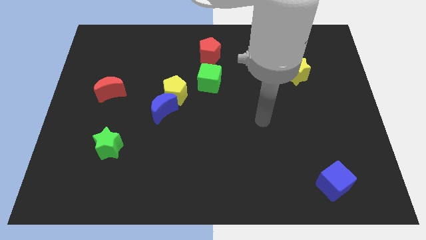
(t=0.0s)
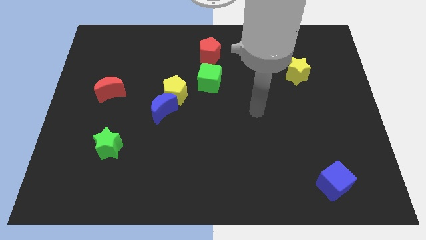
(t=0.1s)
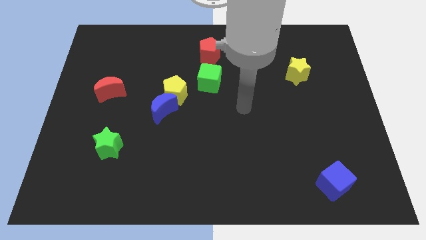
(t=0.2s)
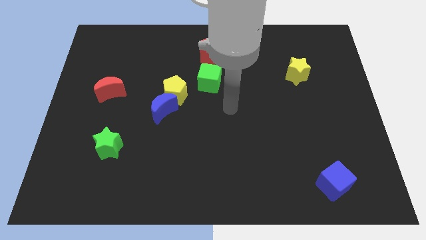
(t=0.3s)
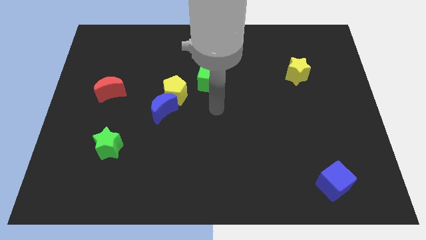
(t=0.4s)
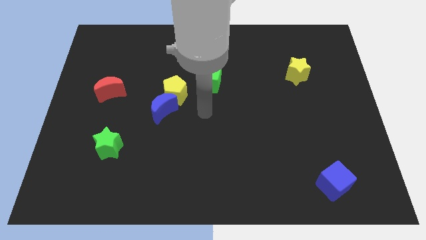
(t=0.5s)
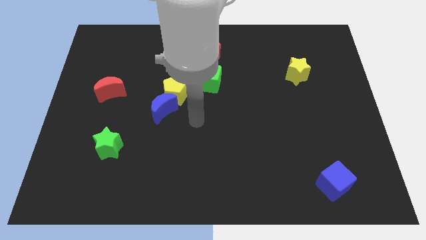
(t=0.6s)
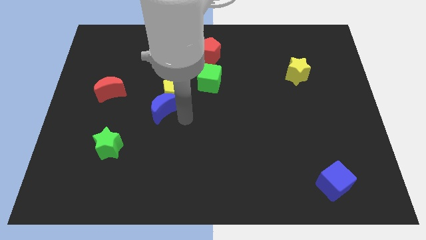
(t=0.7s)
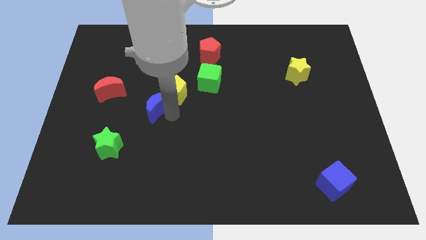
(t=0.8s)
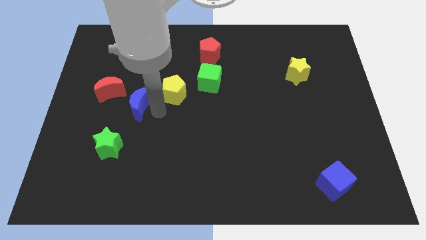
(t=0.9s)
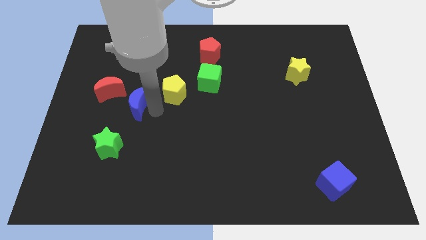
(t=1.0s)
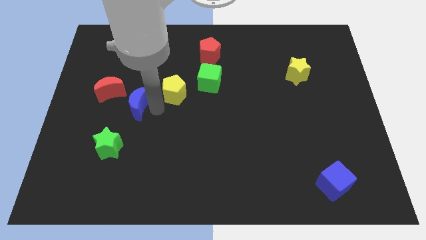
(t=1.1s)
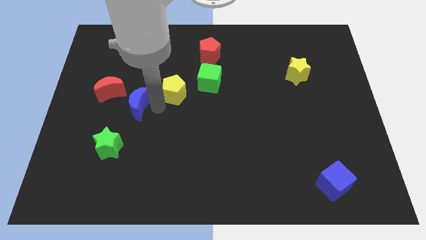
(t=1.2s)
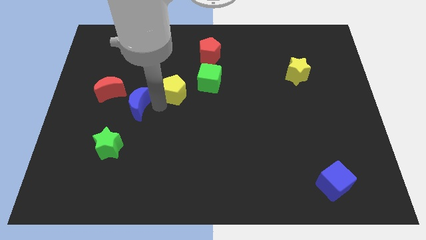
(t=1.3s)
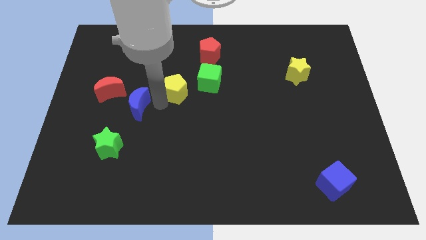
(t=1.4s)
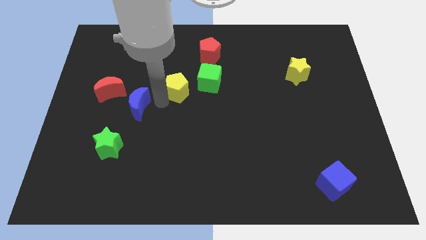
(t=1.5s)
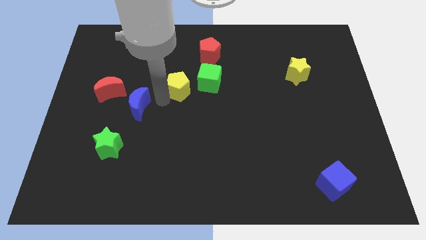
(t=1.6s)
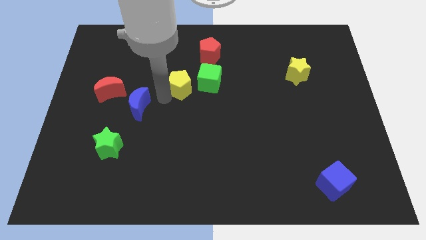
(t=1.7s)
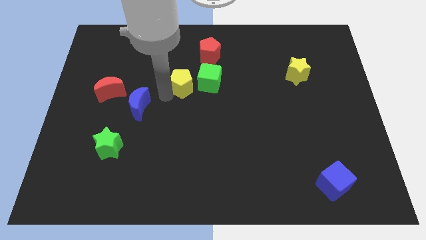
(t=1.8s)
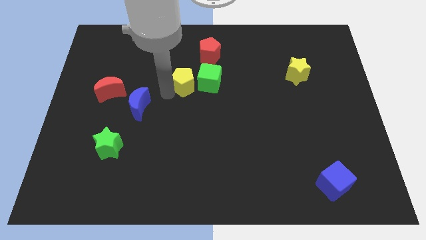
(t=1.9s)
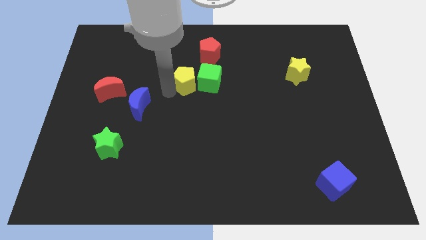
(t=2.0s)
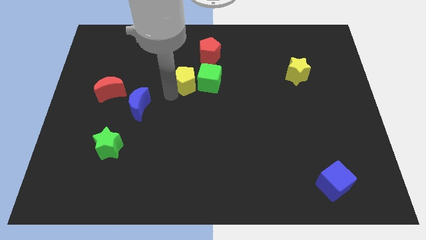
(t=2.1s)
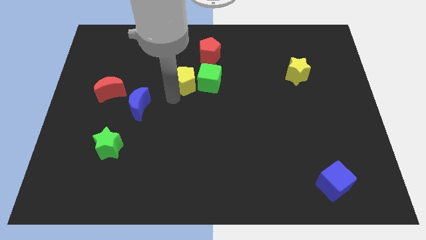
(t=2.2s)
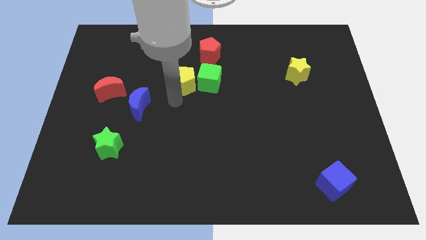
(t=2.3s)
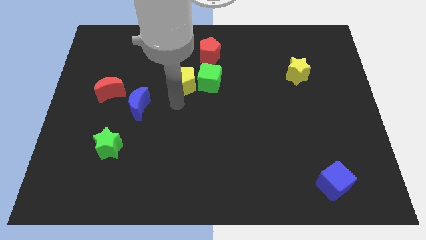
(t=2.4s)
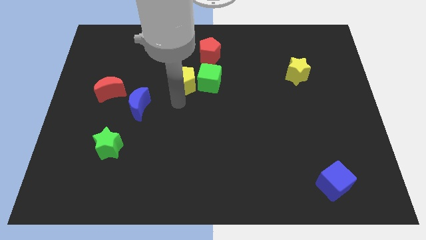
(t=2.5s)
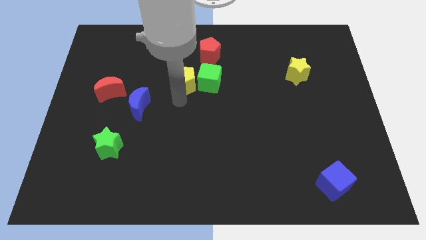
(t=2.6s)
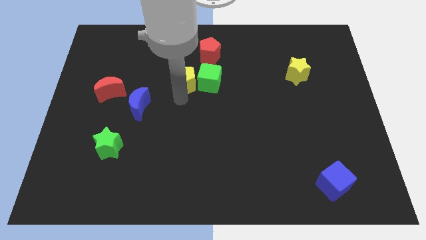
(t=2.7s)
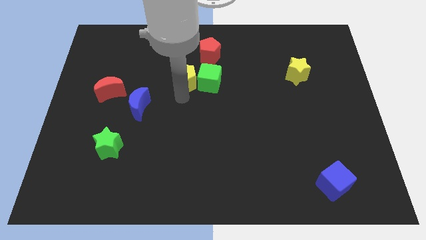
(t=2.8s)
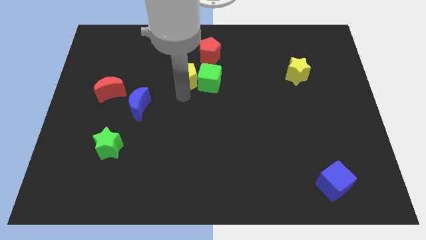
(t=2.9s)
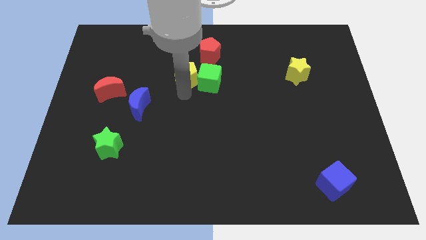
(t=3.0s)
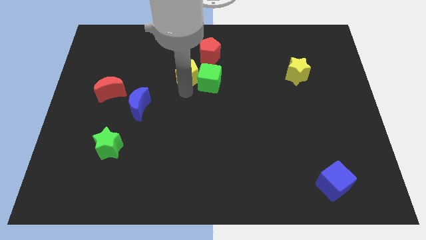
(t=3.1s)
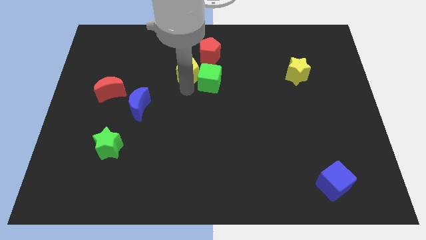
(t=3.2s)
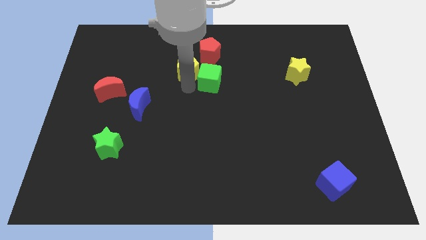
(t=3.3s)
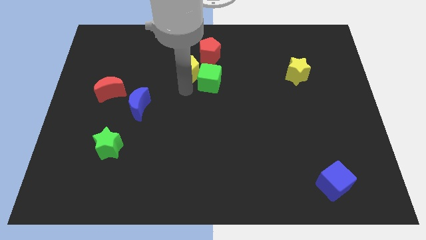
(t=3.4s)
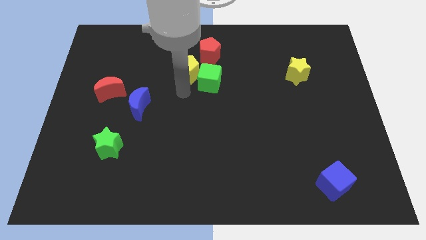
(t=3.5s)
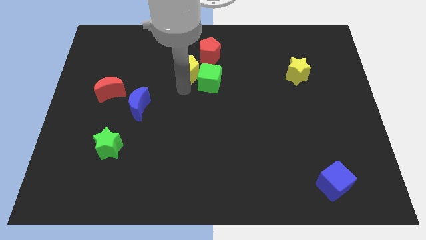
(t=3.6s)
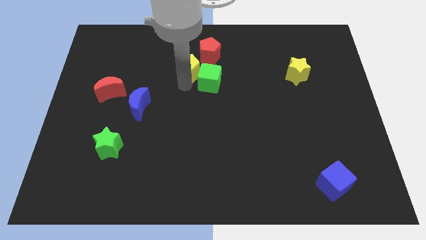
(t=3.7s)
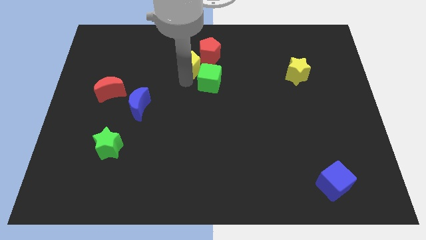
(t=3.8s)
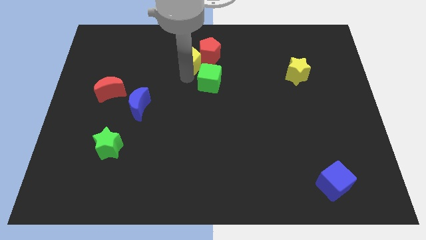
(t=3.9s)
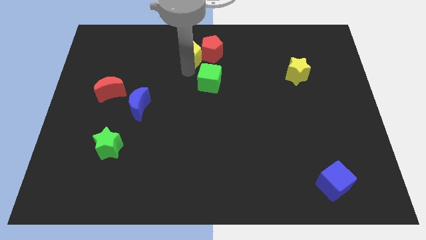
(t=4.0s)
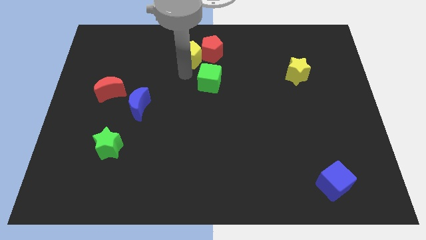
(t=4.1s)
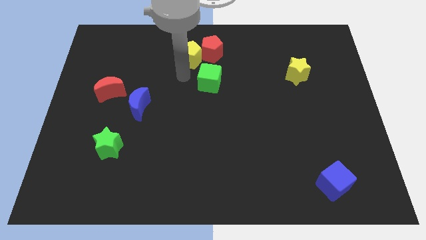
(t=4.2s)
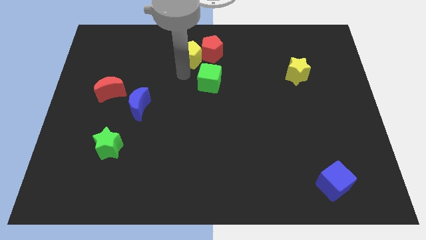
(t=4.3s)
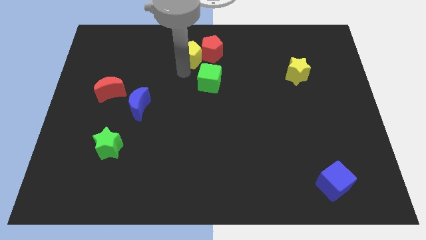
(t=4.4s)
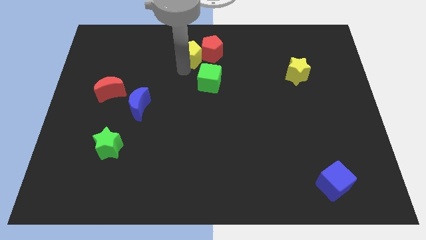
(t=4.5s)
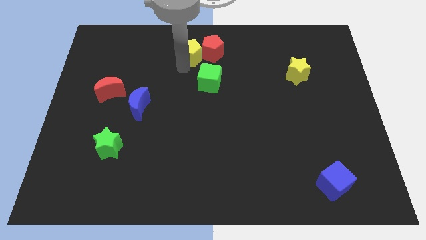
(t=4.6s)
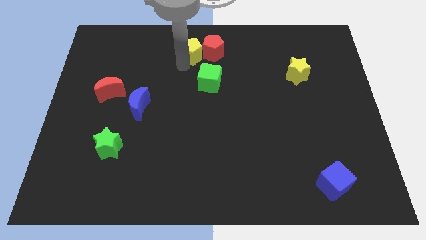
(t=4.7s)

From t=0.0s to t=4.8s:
move the yellow pentagon to the top side

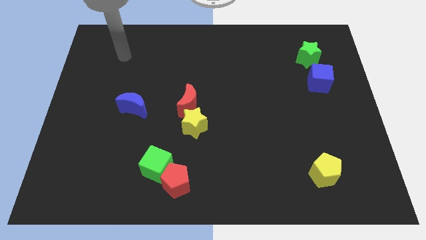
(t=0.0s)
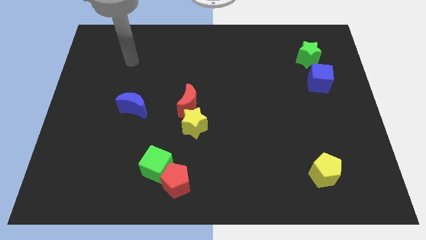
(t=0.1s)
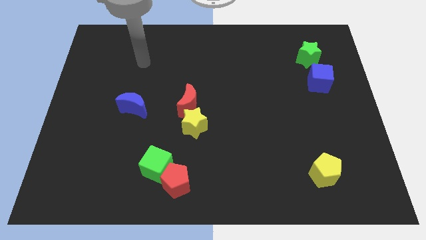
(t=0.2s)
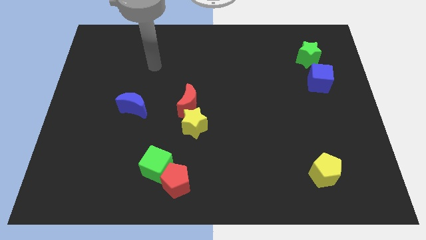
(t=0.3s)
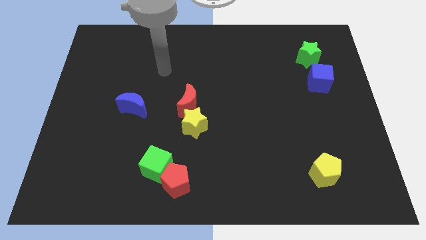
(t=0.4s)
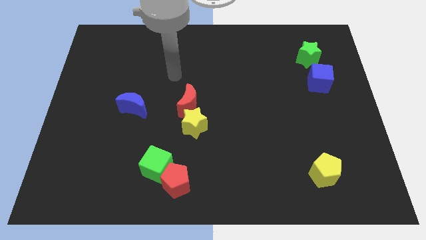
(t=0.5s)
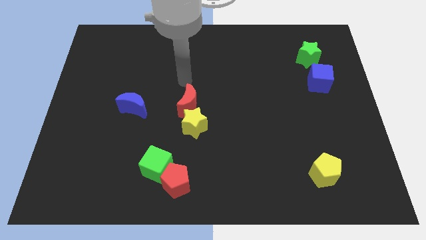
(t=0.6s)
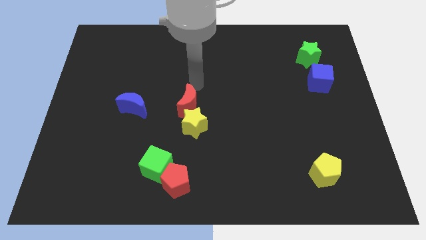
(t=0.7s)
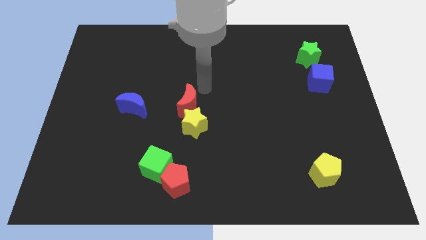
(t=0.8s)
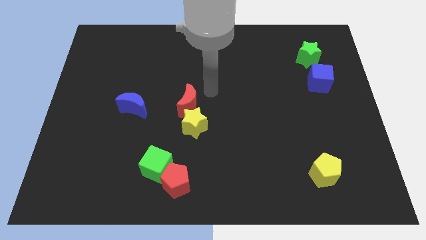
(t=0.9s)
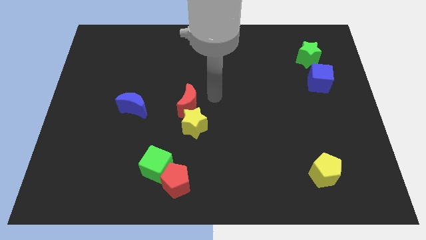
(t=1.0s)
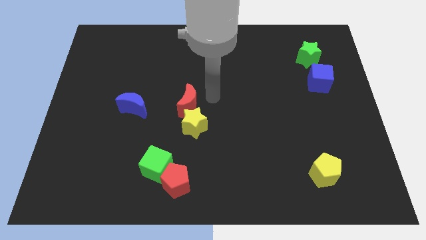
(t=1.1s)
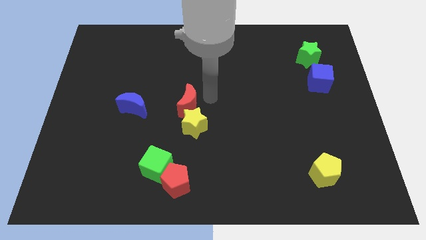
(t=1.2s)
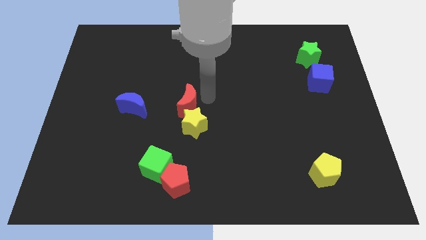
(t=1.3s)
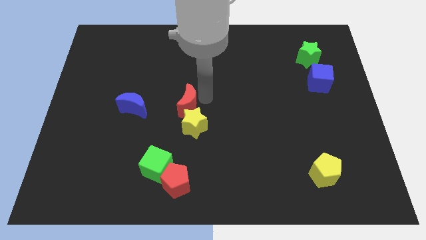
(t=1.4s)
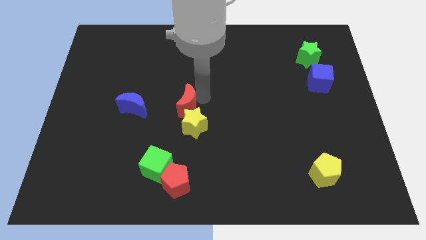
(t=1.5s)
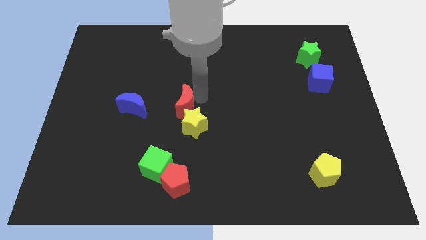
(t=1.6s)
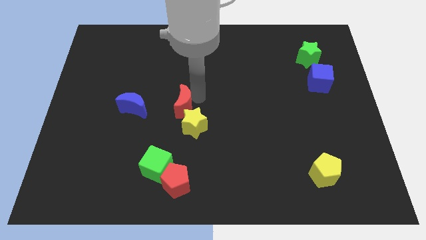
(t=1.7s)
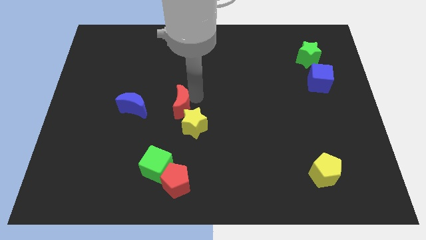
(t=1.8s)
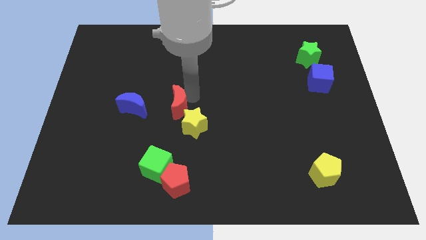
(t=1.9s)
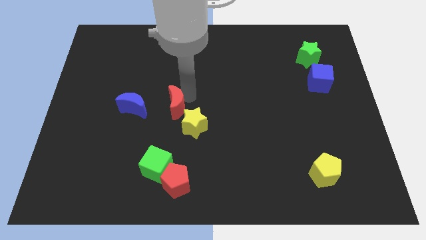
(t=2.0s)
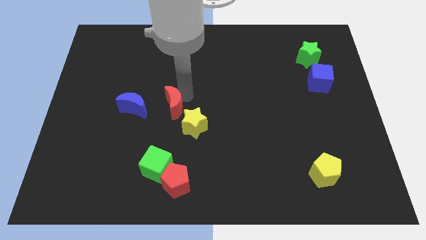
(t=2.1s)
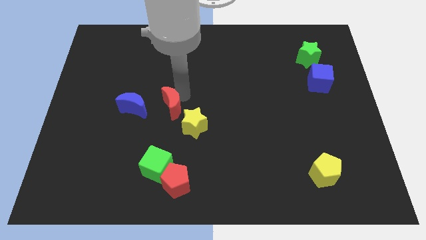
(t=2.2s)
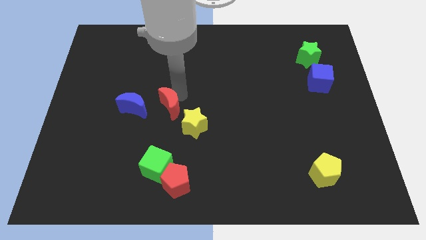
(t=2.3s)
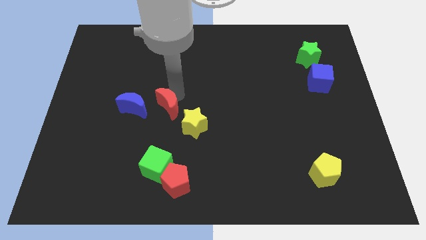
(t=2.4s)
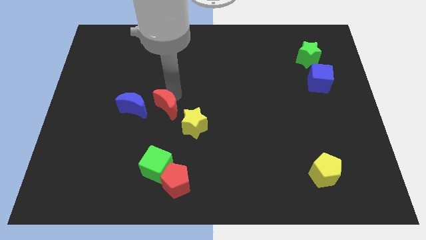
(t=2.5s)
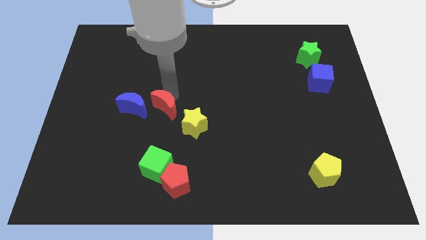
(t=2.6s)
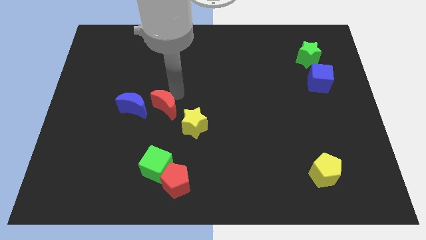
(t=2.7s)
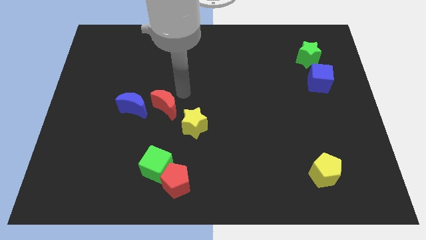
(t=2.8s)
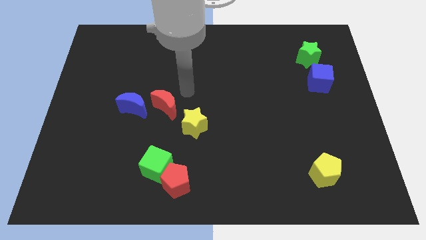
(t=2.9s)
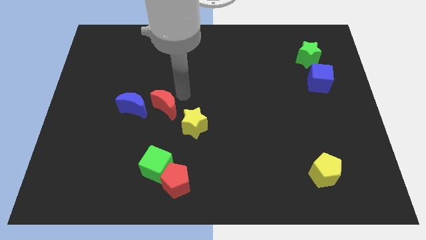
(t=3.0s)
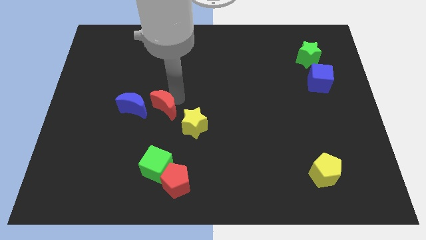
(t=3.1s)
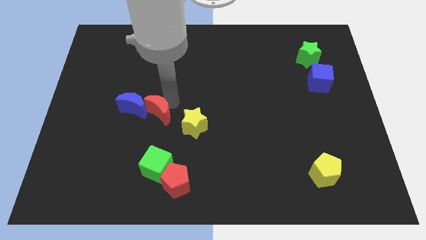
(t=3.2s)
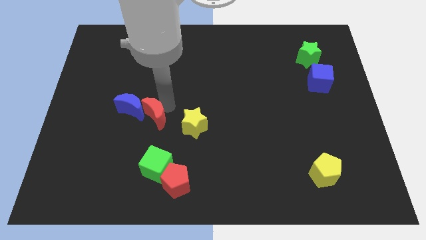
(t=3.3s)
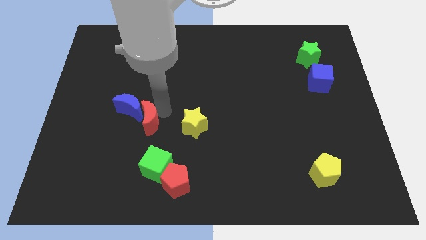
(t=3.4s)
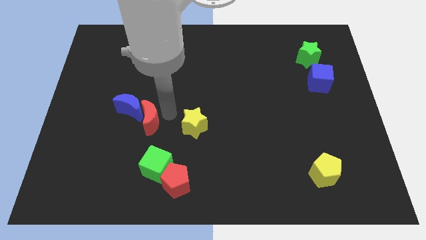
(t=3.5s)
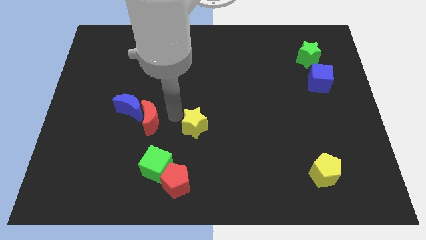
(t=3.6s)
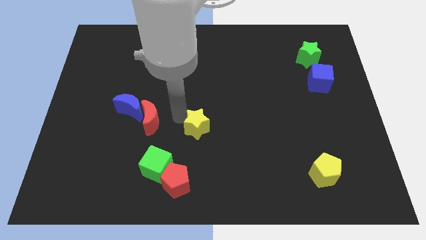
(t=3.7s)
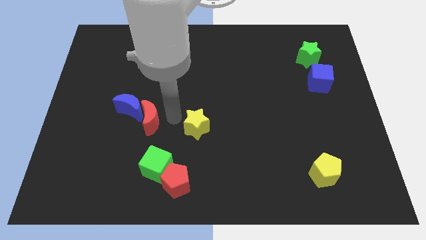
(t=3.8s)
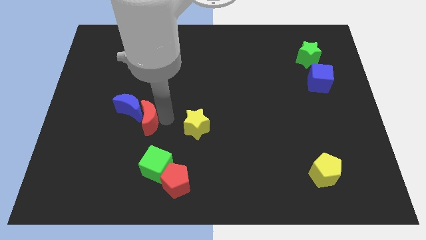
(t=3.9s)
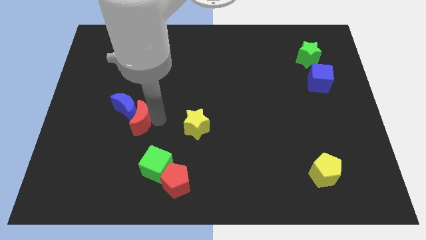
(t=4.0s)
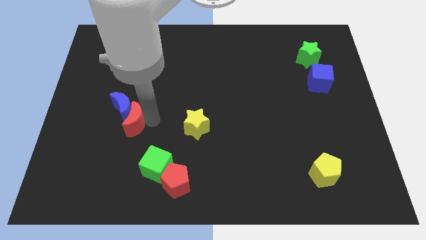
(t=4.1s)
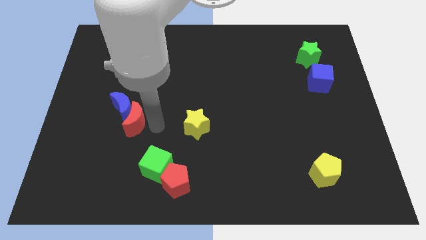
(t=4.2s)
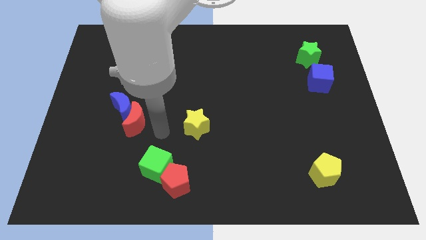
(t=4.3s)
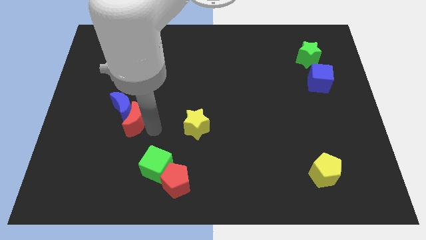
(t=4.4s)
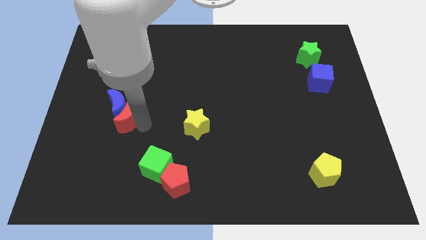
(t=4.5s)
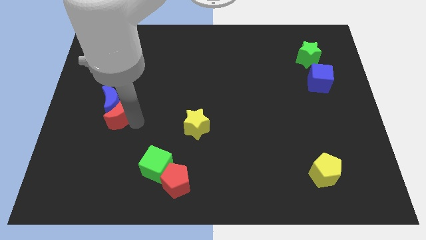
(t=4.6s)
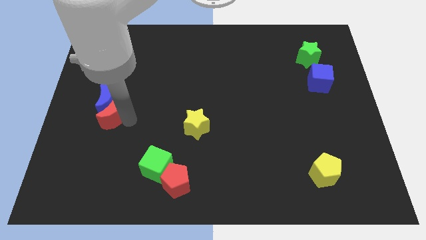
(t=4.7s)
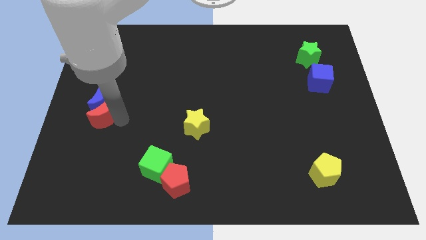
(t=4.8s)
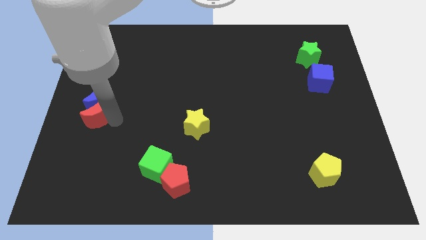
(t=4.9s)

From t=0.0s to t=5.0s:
put the red moon to the left side of the board
